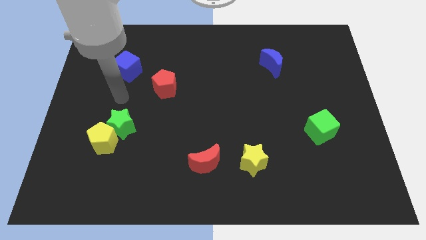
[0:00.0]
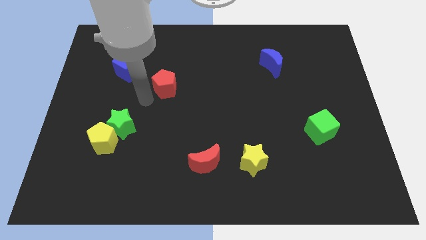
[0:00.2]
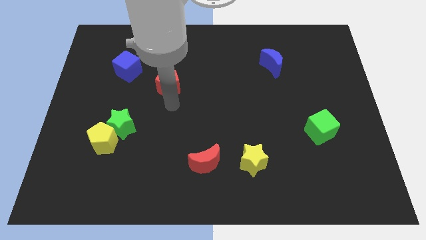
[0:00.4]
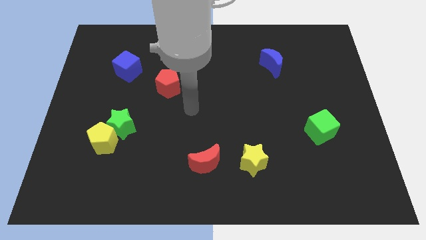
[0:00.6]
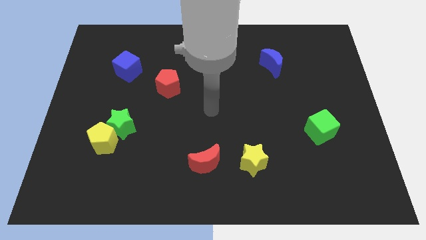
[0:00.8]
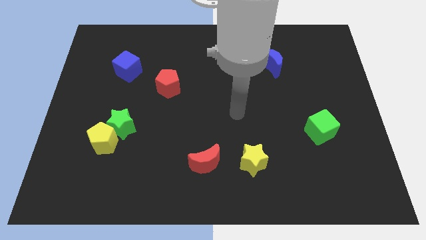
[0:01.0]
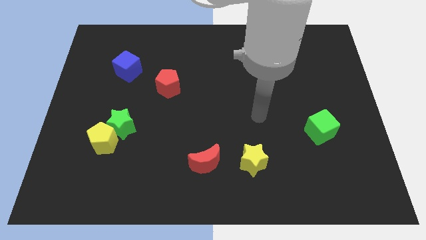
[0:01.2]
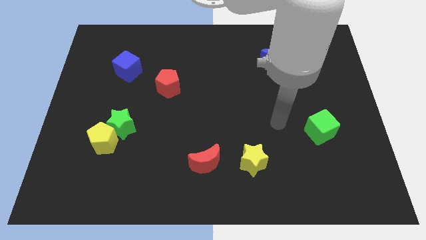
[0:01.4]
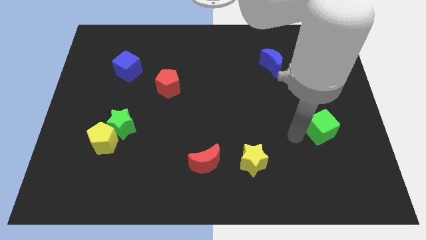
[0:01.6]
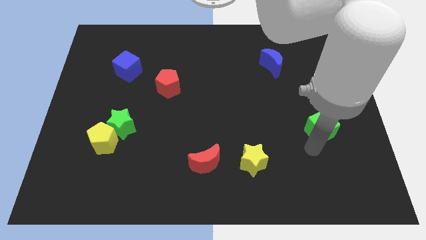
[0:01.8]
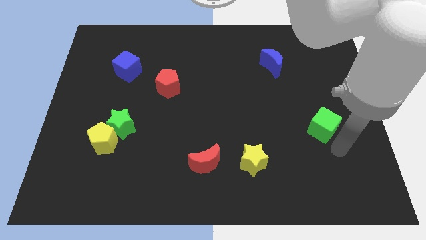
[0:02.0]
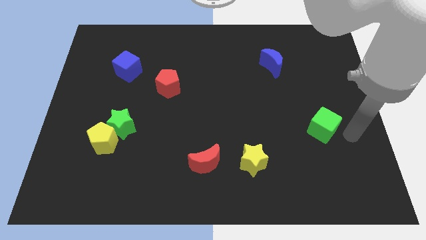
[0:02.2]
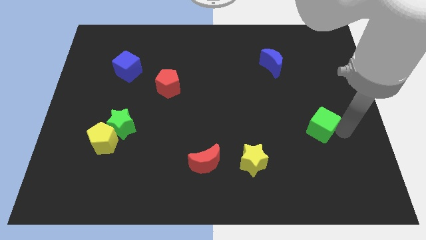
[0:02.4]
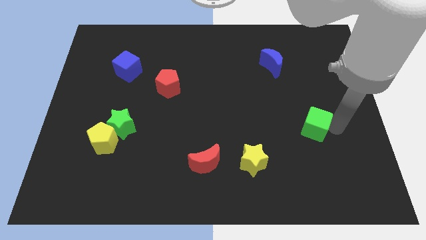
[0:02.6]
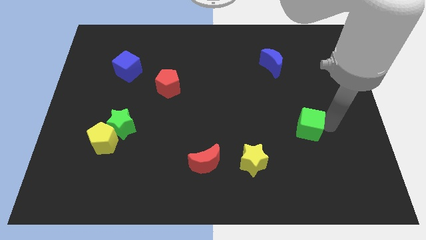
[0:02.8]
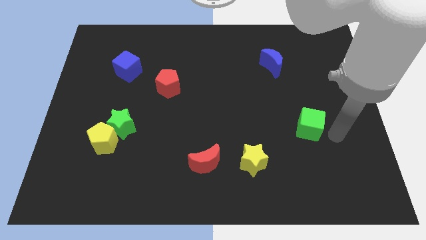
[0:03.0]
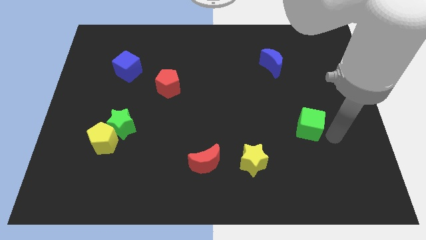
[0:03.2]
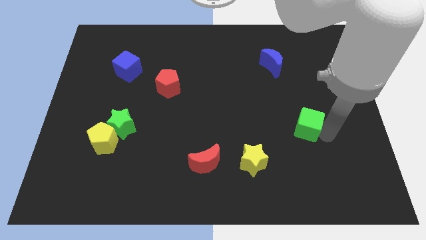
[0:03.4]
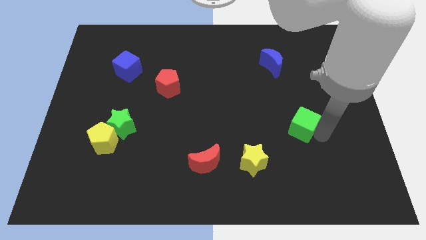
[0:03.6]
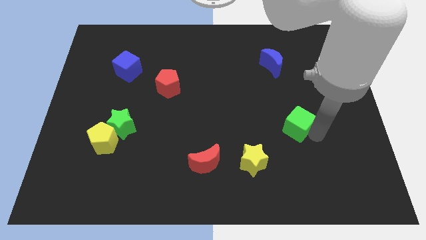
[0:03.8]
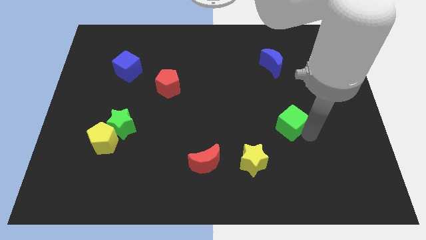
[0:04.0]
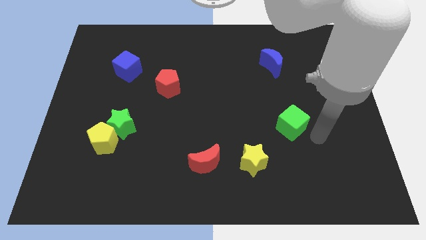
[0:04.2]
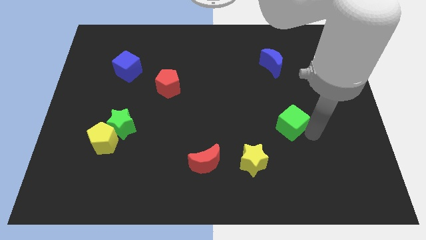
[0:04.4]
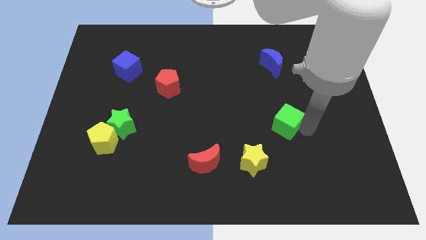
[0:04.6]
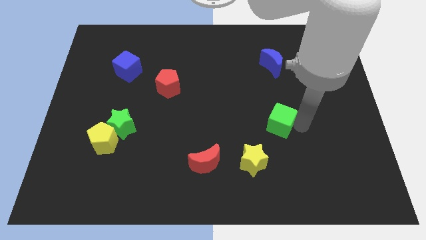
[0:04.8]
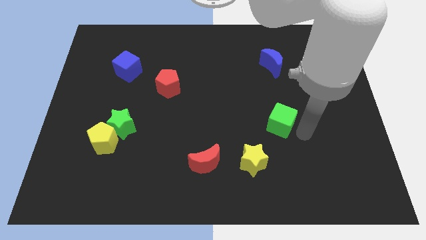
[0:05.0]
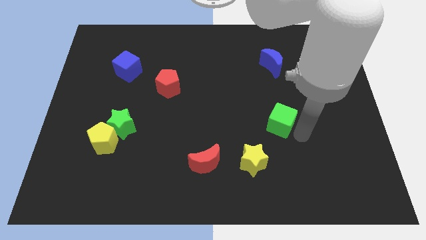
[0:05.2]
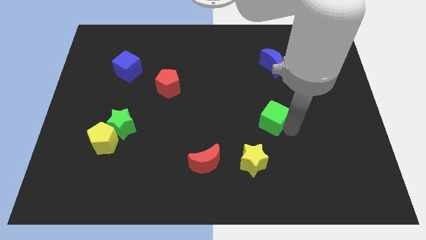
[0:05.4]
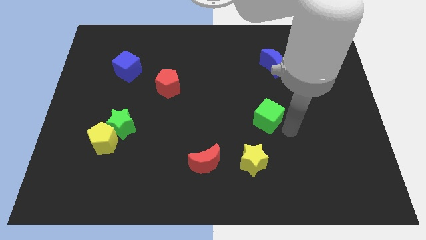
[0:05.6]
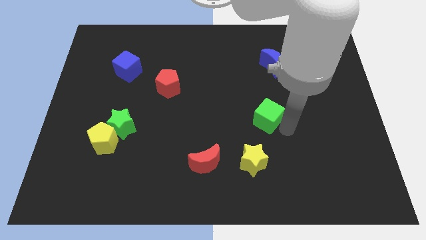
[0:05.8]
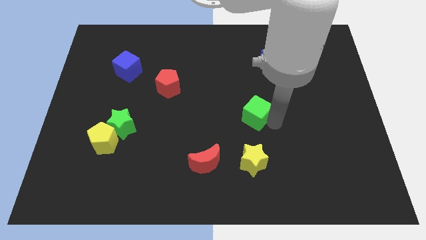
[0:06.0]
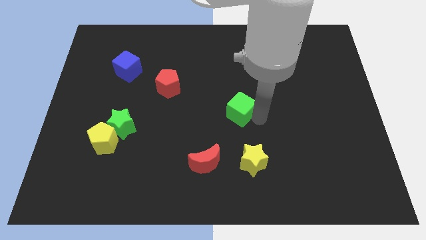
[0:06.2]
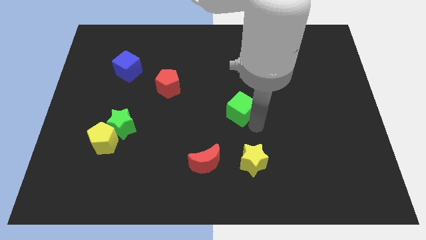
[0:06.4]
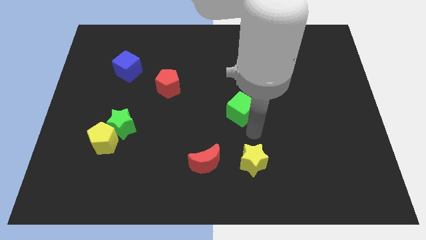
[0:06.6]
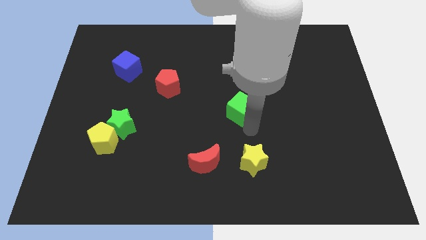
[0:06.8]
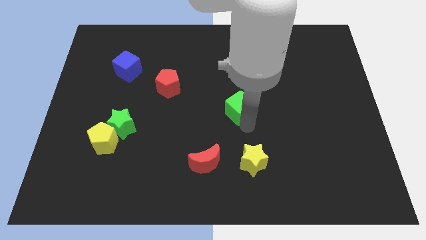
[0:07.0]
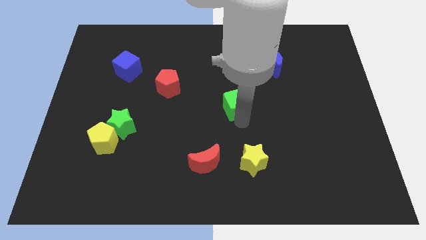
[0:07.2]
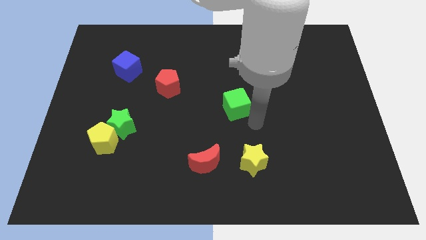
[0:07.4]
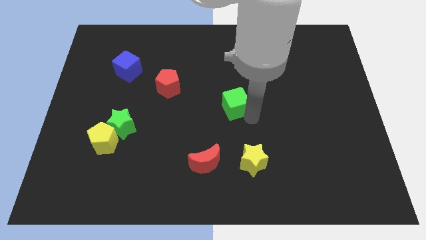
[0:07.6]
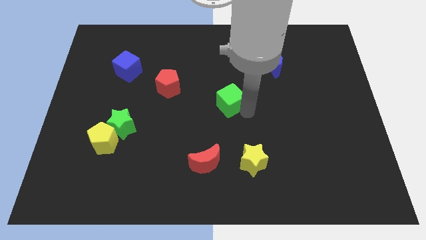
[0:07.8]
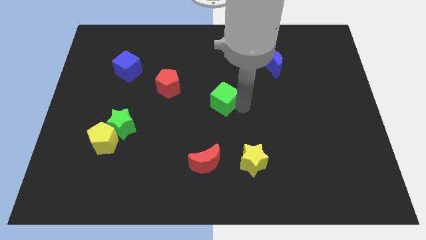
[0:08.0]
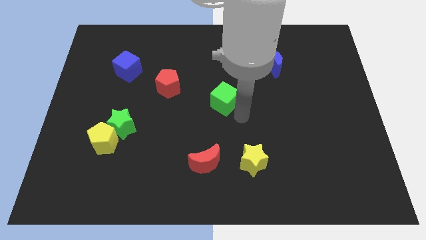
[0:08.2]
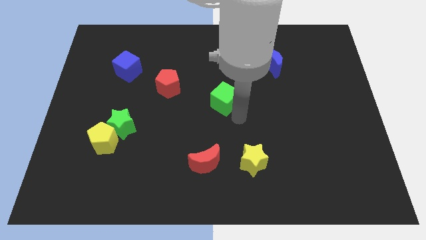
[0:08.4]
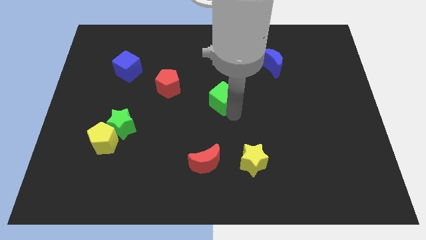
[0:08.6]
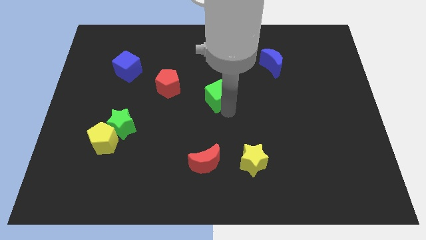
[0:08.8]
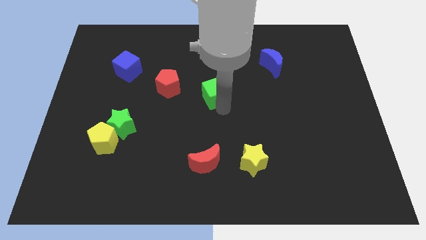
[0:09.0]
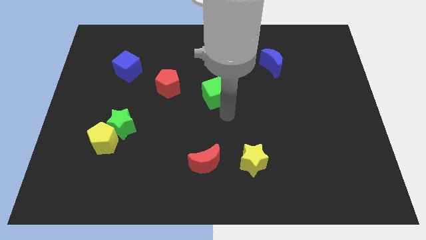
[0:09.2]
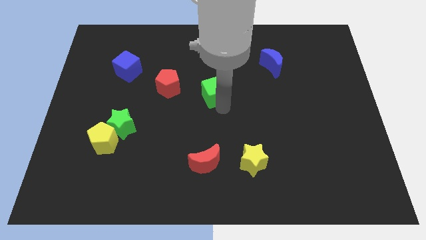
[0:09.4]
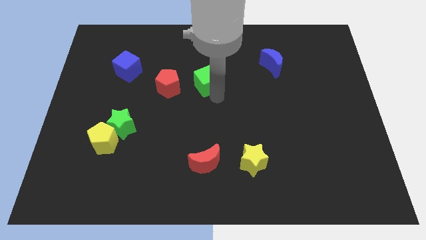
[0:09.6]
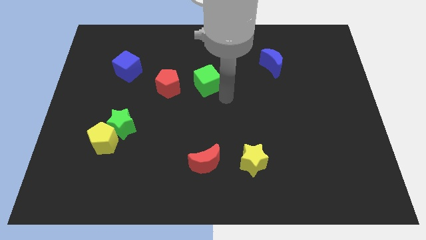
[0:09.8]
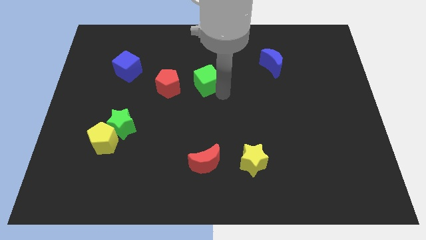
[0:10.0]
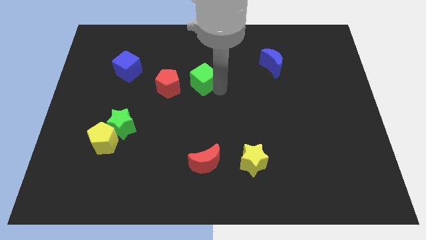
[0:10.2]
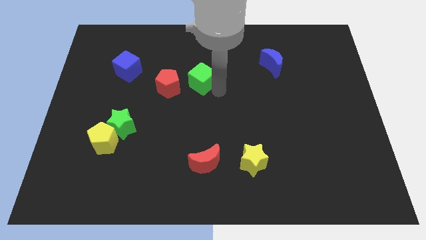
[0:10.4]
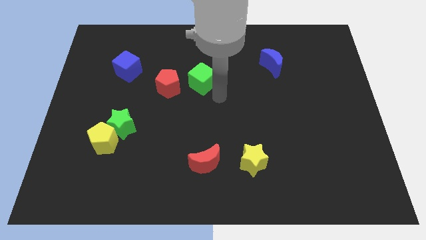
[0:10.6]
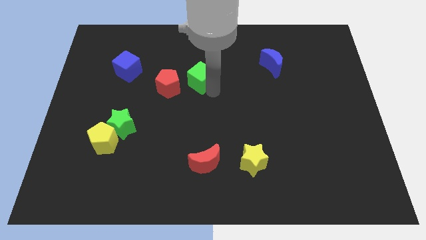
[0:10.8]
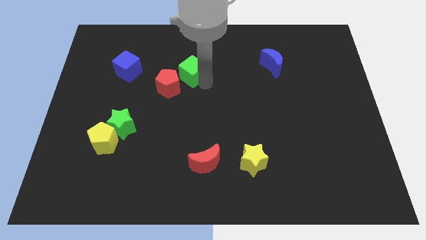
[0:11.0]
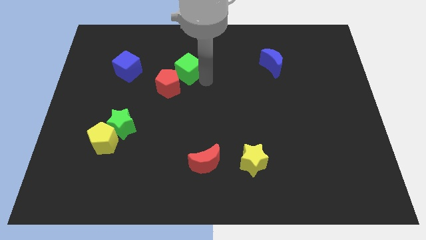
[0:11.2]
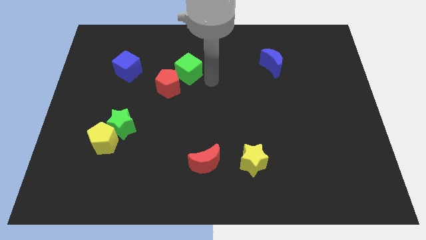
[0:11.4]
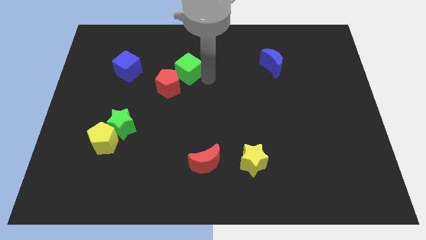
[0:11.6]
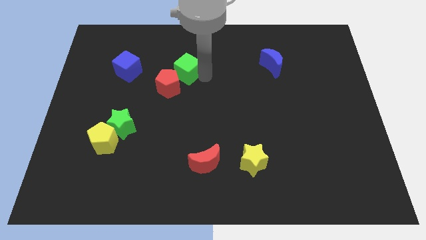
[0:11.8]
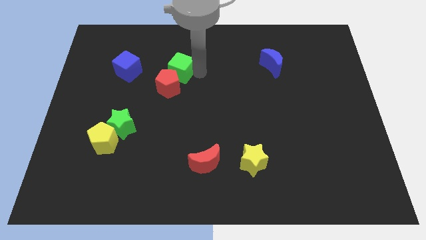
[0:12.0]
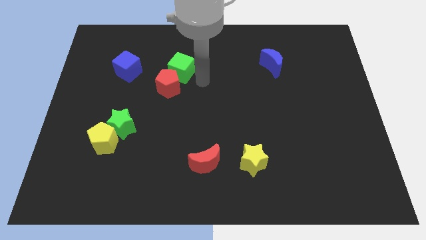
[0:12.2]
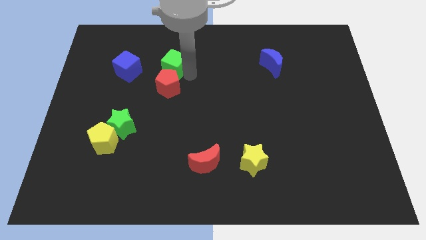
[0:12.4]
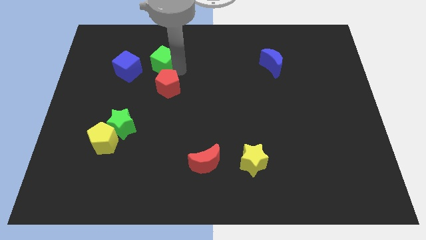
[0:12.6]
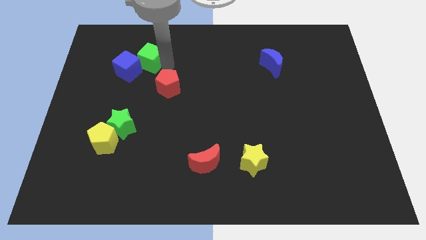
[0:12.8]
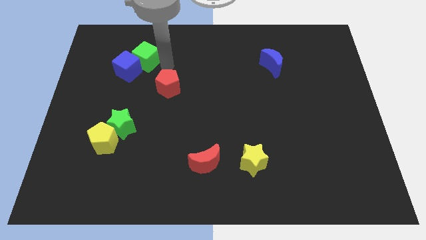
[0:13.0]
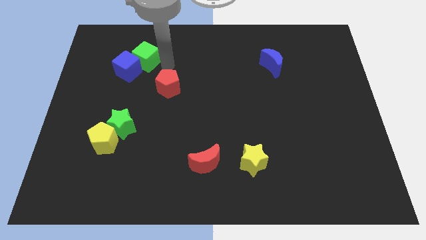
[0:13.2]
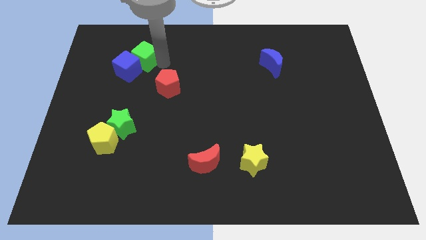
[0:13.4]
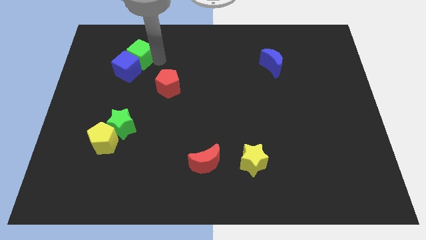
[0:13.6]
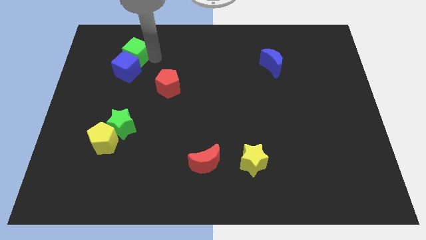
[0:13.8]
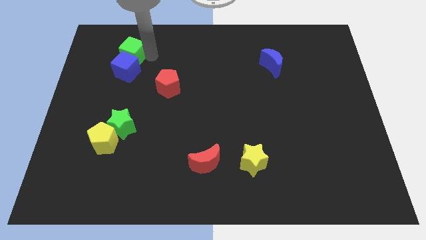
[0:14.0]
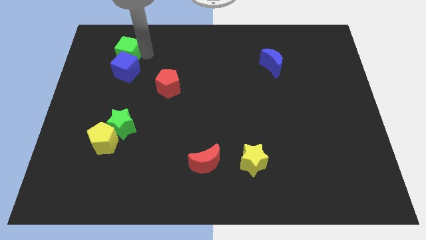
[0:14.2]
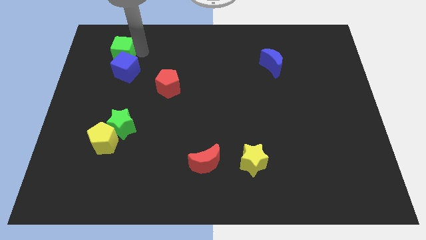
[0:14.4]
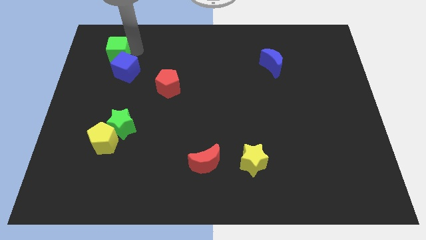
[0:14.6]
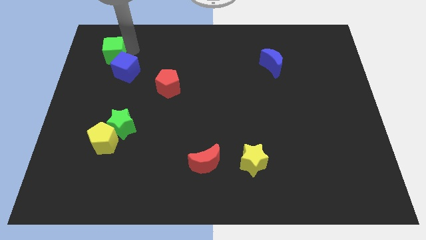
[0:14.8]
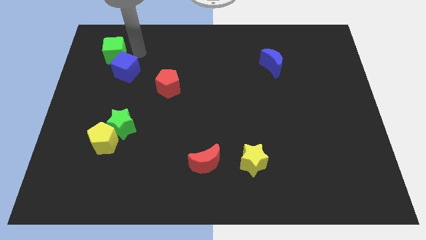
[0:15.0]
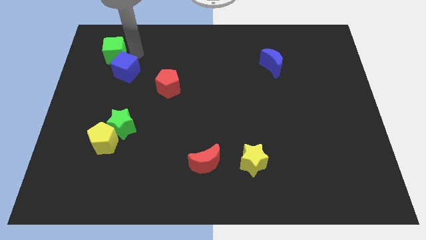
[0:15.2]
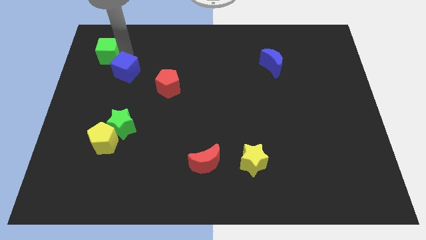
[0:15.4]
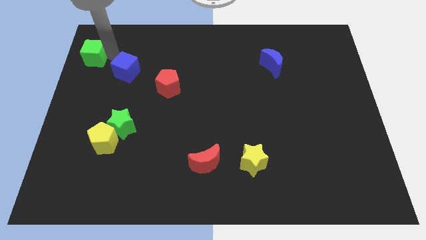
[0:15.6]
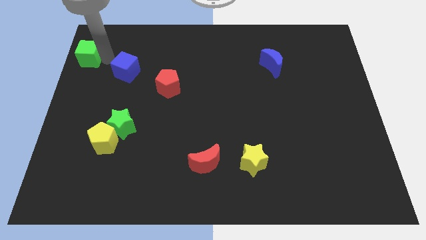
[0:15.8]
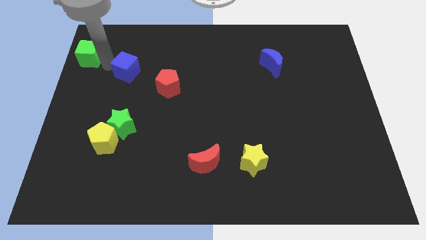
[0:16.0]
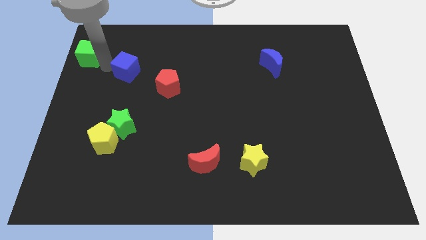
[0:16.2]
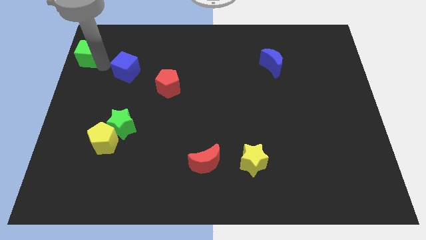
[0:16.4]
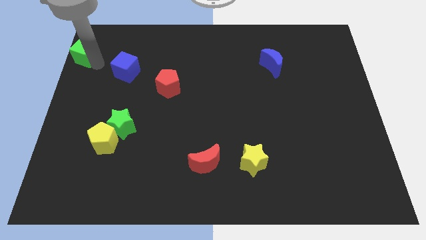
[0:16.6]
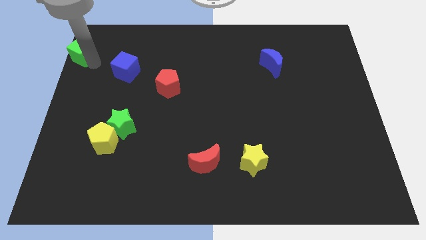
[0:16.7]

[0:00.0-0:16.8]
slide the green cube to the top left corner
